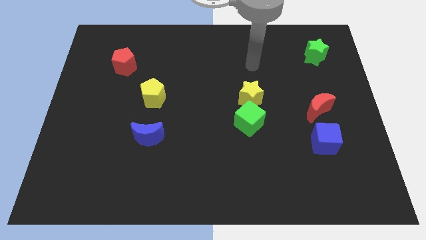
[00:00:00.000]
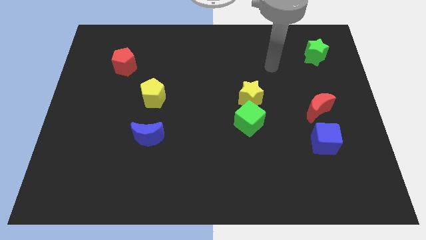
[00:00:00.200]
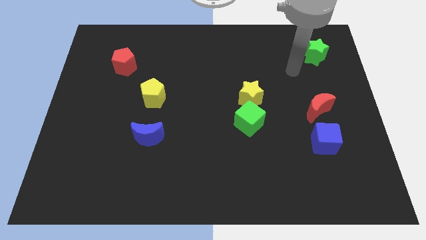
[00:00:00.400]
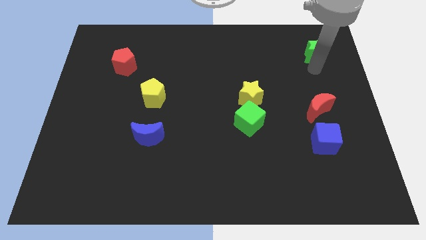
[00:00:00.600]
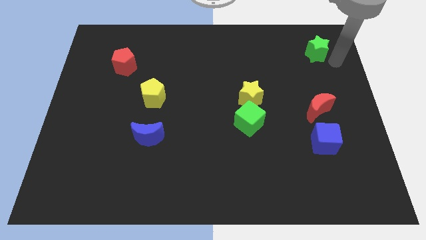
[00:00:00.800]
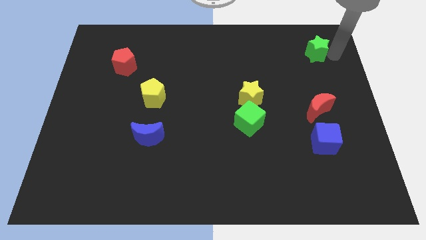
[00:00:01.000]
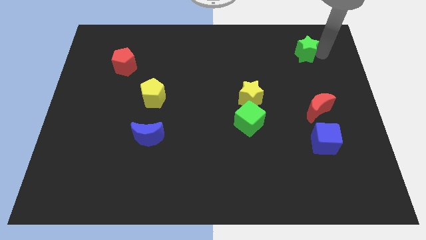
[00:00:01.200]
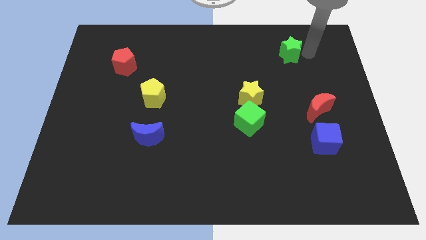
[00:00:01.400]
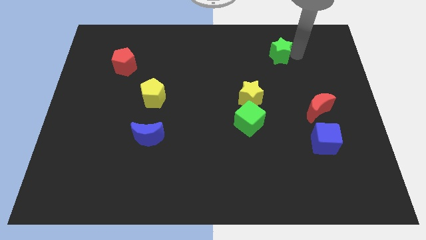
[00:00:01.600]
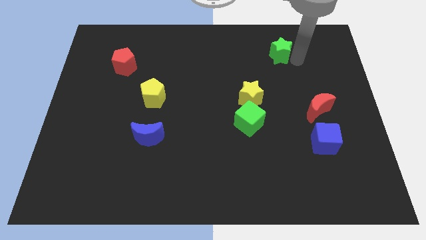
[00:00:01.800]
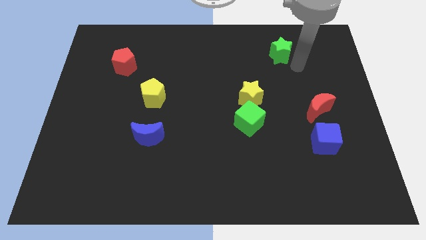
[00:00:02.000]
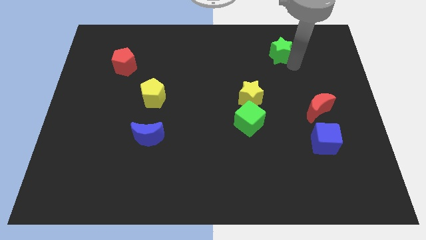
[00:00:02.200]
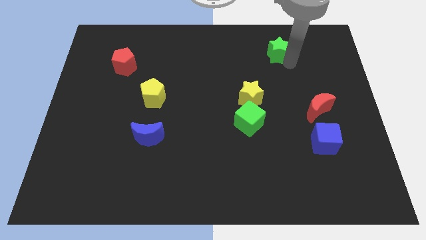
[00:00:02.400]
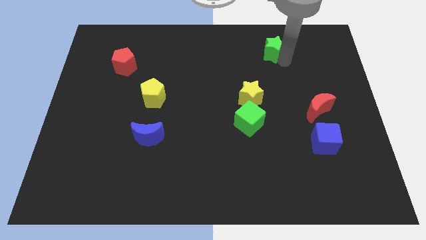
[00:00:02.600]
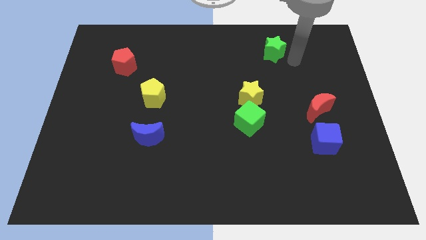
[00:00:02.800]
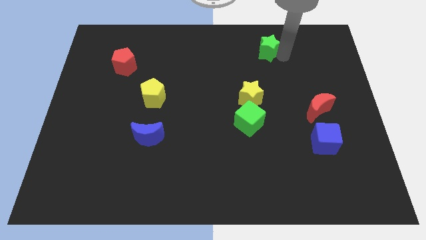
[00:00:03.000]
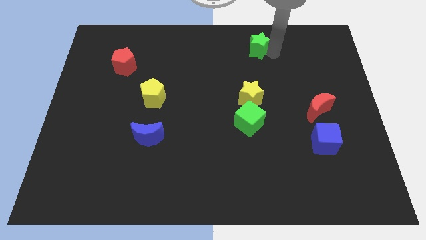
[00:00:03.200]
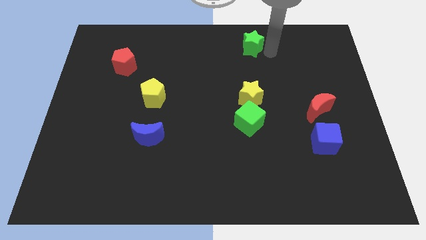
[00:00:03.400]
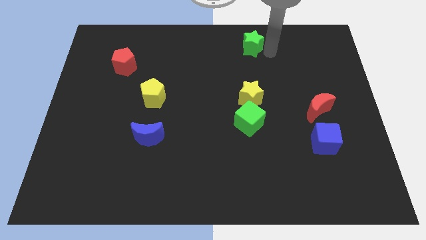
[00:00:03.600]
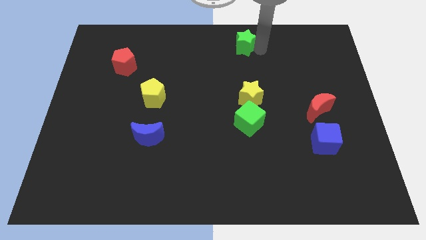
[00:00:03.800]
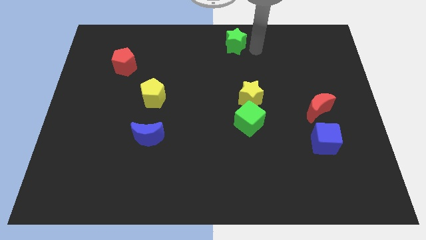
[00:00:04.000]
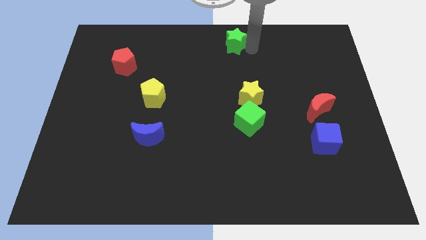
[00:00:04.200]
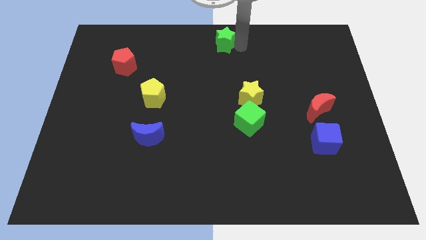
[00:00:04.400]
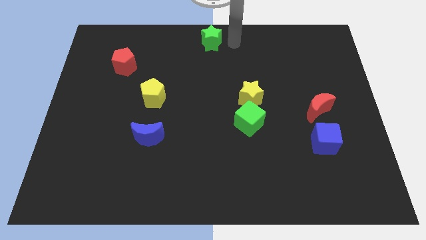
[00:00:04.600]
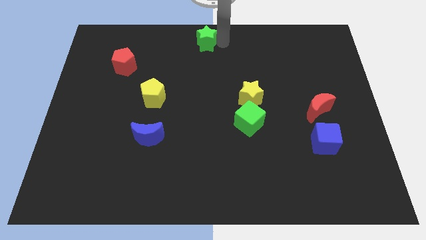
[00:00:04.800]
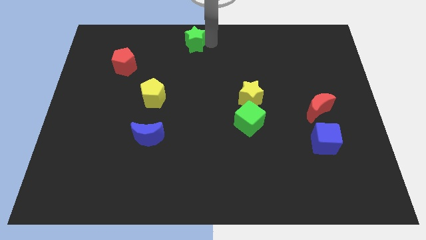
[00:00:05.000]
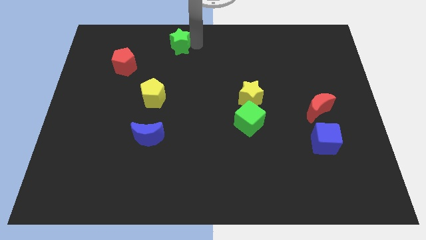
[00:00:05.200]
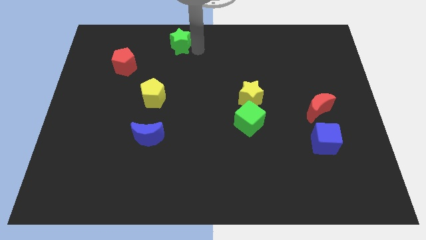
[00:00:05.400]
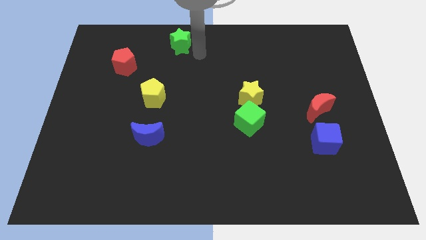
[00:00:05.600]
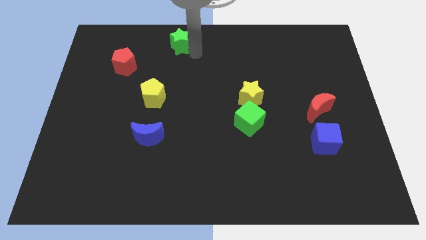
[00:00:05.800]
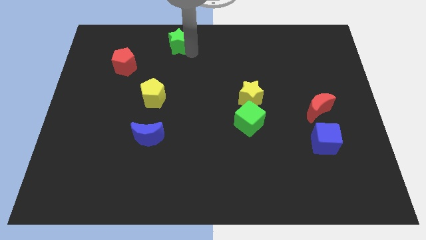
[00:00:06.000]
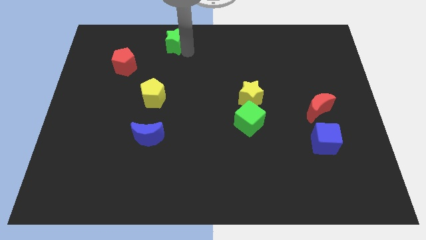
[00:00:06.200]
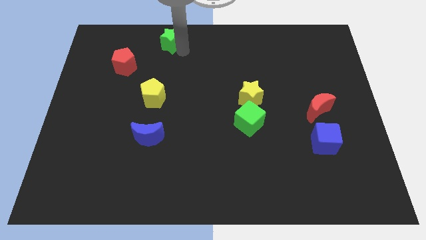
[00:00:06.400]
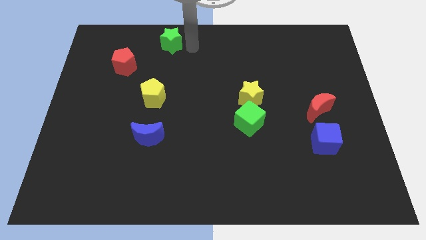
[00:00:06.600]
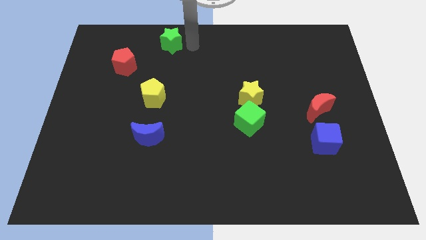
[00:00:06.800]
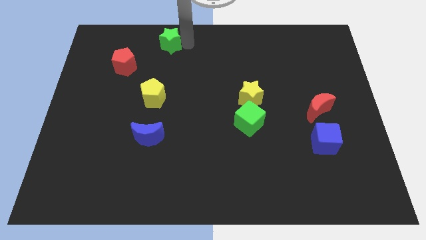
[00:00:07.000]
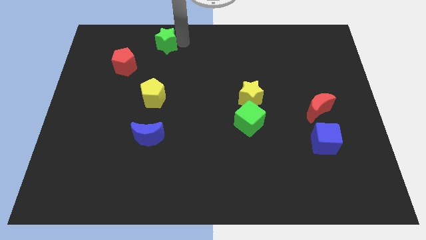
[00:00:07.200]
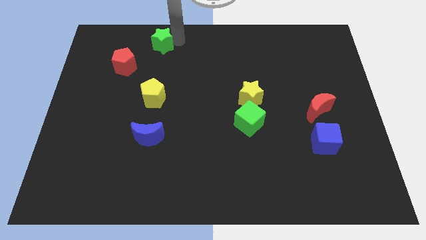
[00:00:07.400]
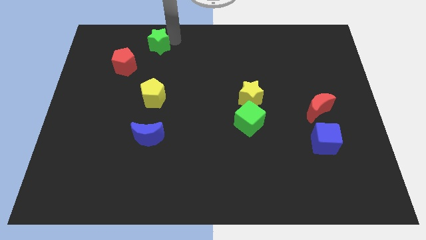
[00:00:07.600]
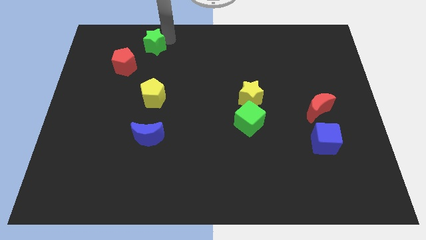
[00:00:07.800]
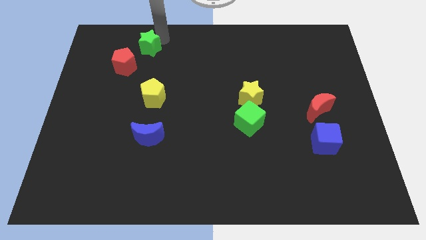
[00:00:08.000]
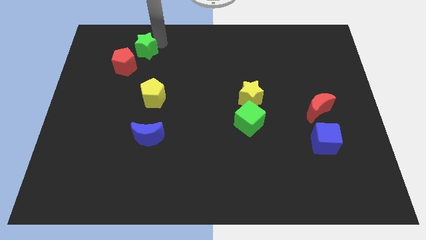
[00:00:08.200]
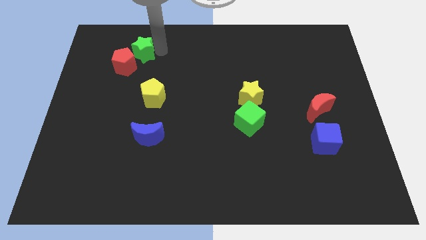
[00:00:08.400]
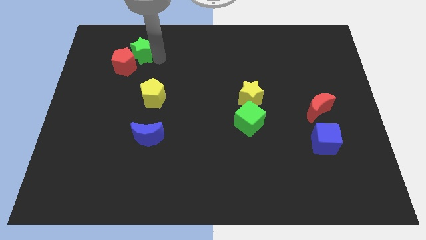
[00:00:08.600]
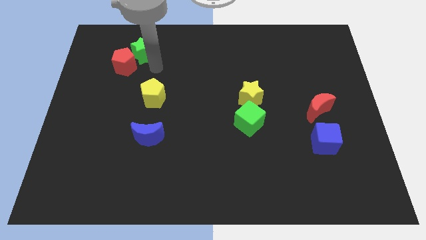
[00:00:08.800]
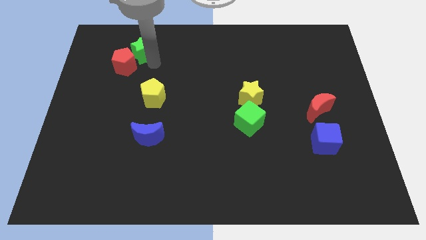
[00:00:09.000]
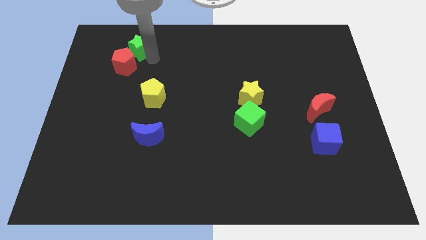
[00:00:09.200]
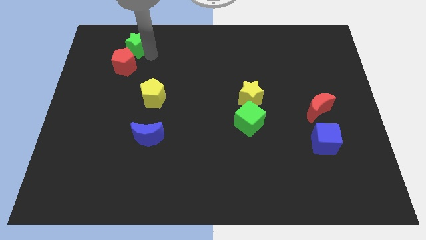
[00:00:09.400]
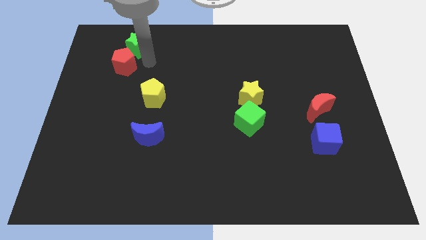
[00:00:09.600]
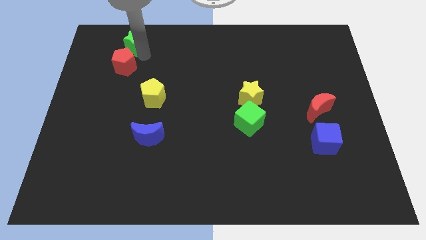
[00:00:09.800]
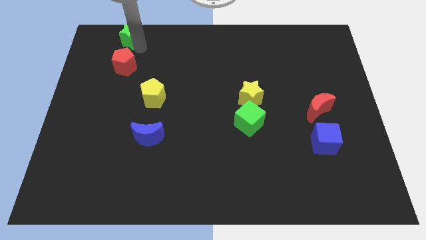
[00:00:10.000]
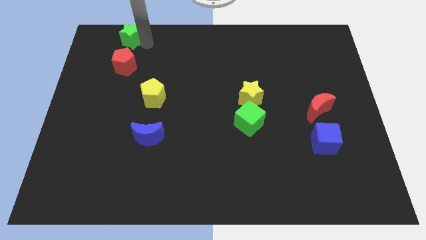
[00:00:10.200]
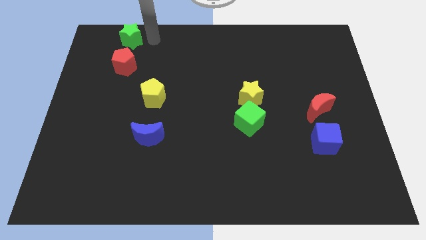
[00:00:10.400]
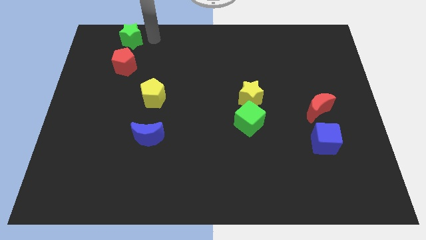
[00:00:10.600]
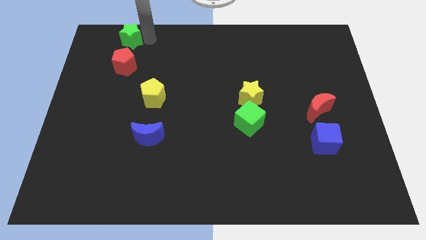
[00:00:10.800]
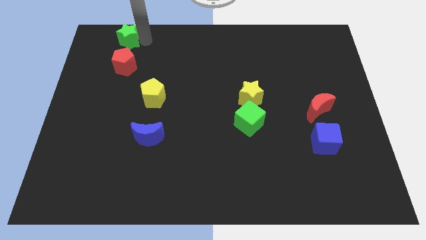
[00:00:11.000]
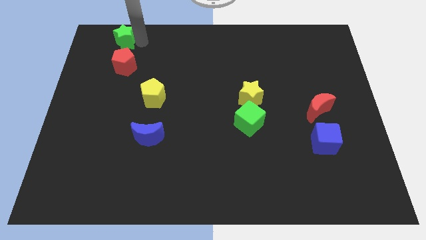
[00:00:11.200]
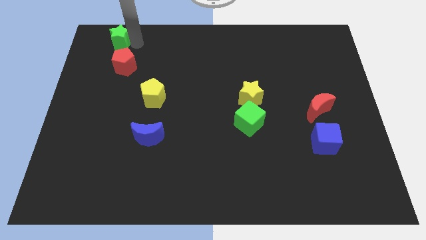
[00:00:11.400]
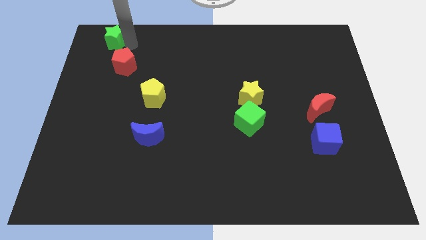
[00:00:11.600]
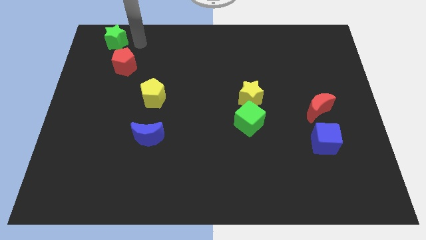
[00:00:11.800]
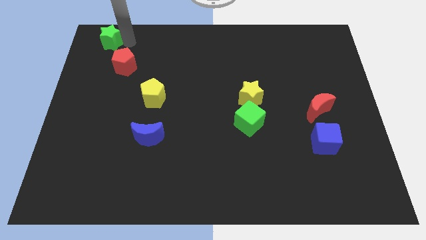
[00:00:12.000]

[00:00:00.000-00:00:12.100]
move the green star to the top left of the board
